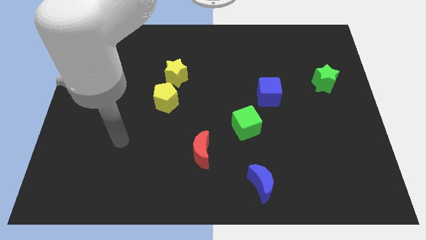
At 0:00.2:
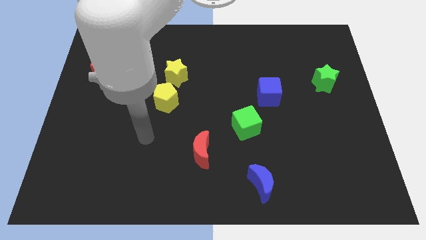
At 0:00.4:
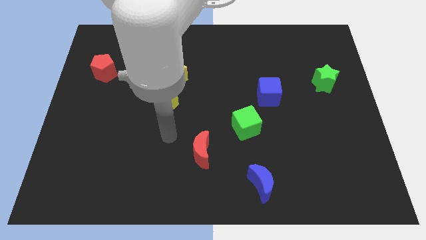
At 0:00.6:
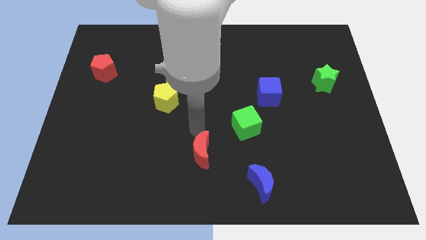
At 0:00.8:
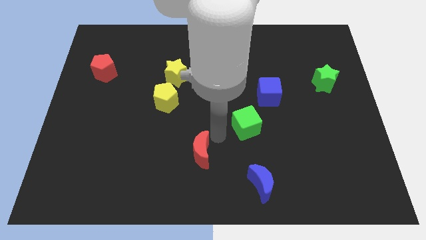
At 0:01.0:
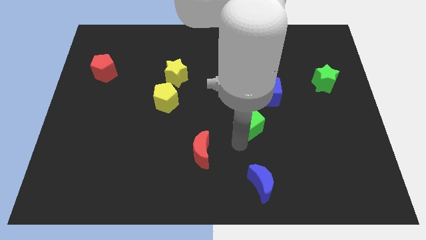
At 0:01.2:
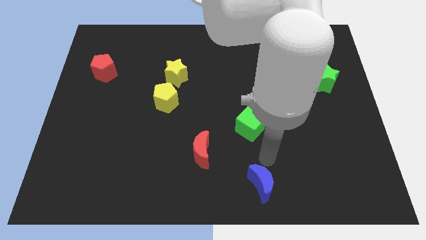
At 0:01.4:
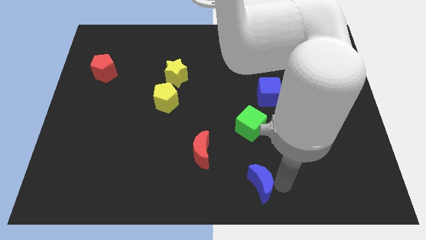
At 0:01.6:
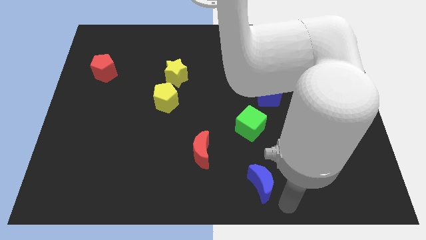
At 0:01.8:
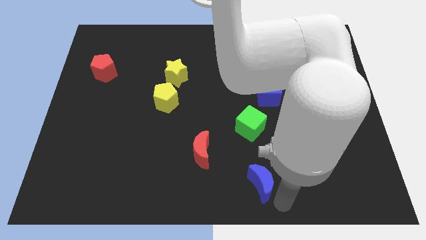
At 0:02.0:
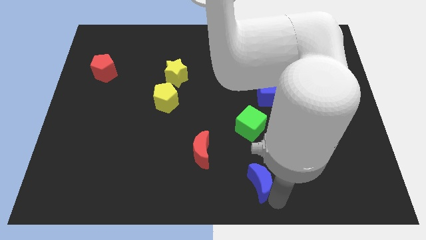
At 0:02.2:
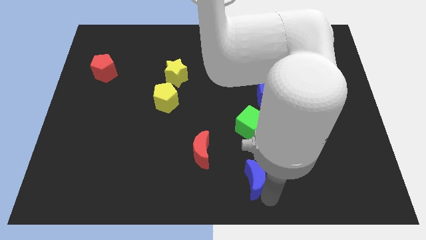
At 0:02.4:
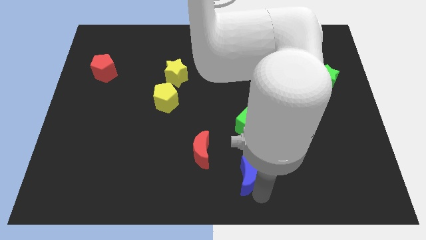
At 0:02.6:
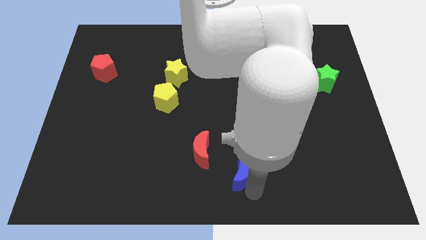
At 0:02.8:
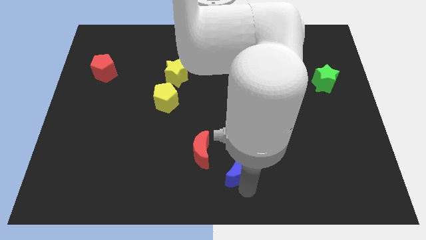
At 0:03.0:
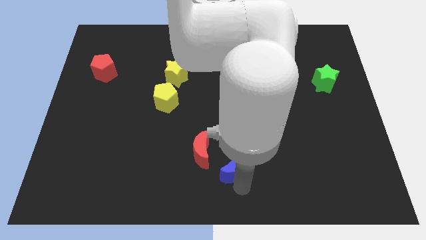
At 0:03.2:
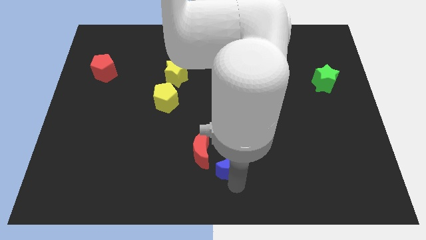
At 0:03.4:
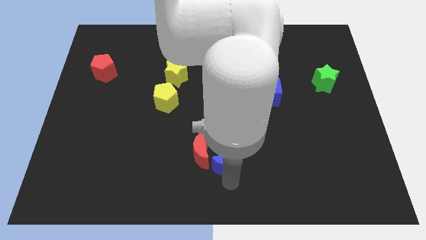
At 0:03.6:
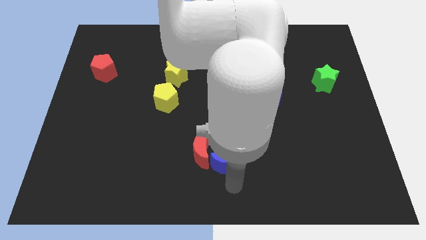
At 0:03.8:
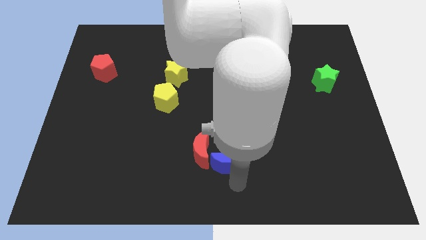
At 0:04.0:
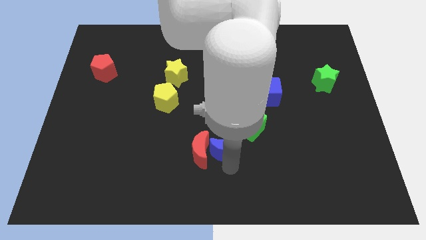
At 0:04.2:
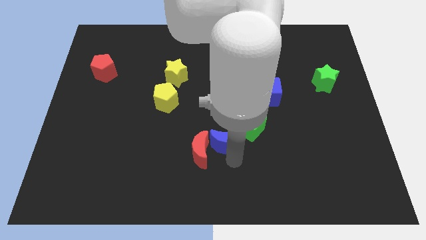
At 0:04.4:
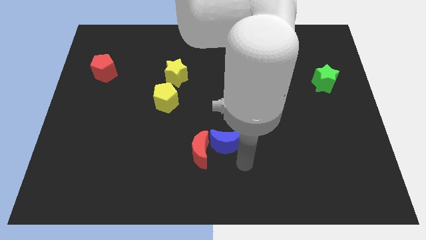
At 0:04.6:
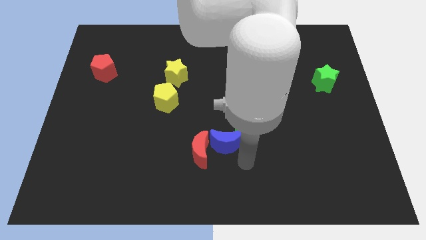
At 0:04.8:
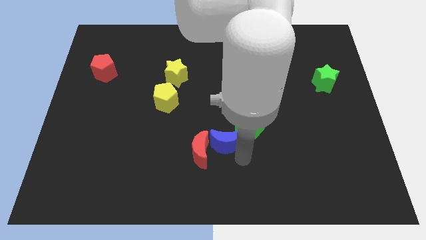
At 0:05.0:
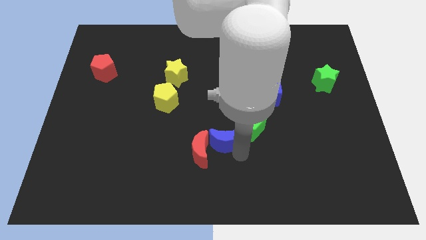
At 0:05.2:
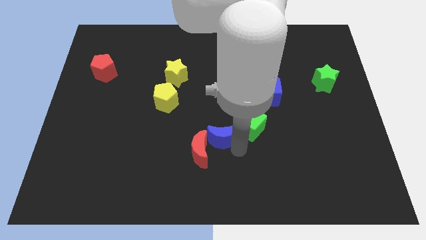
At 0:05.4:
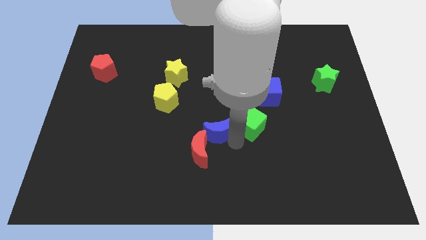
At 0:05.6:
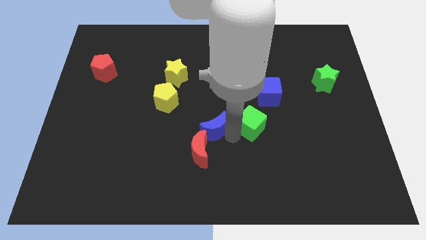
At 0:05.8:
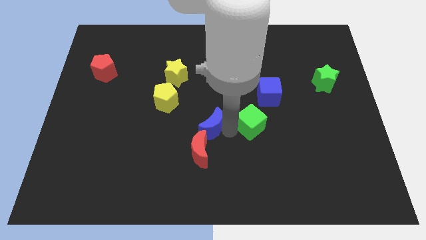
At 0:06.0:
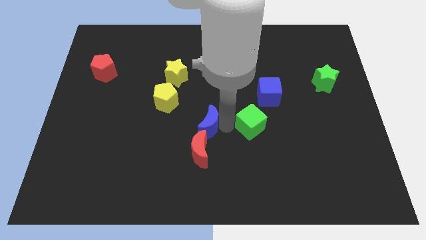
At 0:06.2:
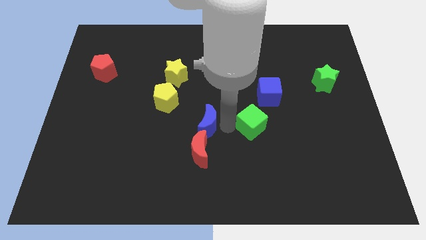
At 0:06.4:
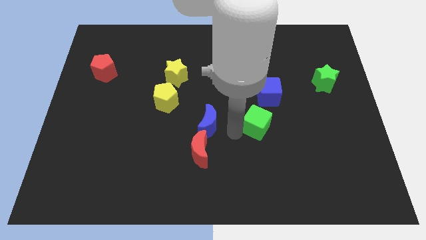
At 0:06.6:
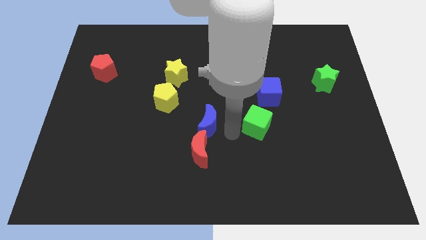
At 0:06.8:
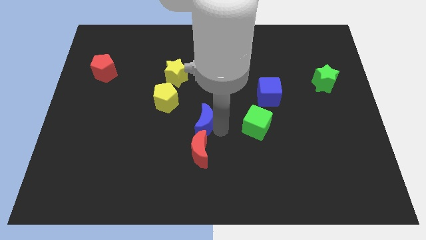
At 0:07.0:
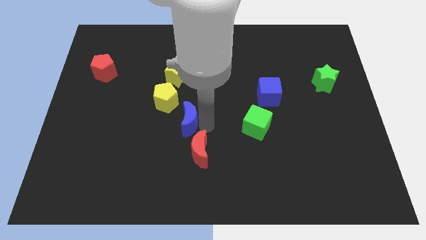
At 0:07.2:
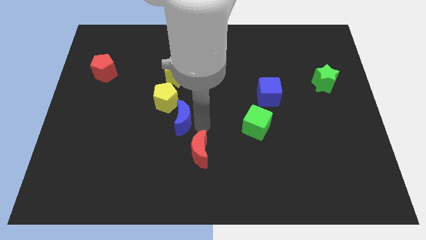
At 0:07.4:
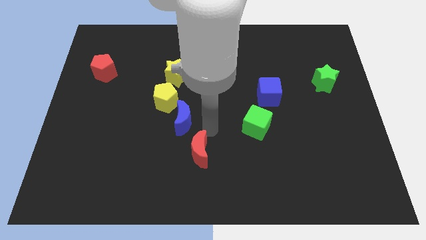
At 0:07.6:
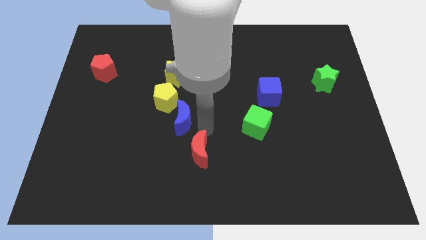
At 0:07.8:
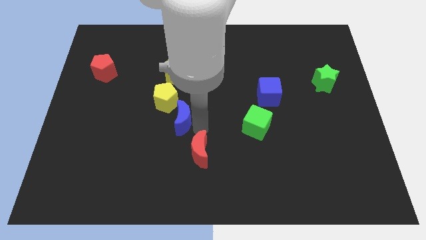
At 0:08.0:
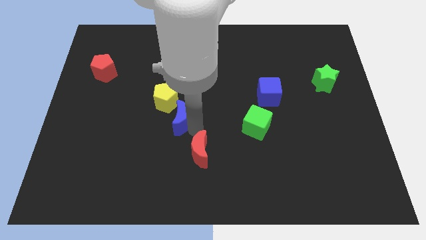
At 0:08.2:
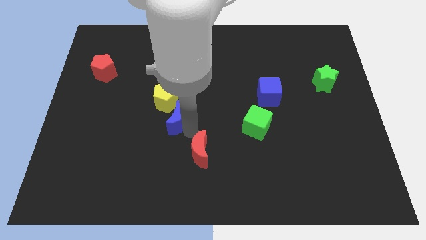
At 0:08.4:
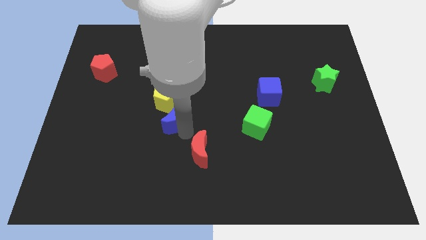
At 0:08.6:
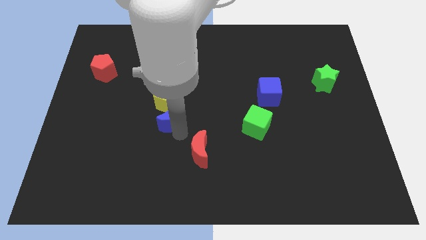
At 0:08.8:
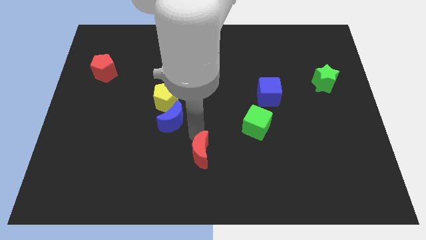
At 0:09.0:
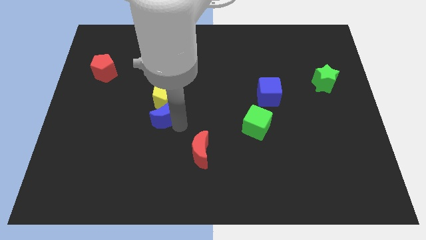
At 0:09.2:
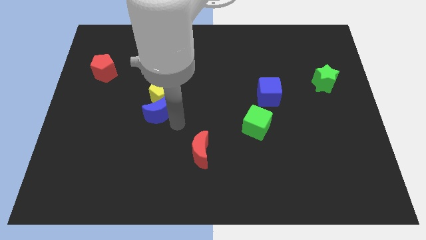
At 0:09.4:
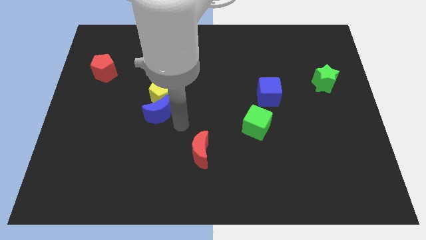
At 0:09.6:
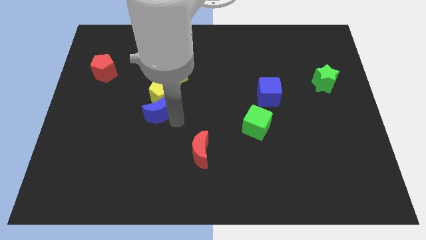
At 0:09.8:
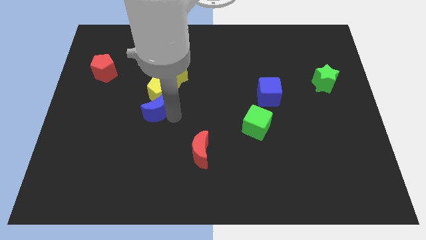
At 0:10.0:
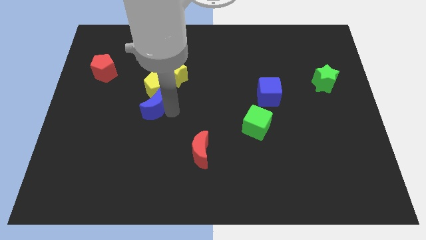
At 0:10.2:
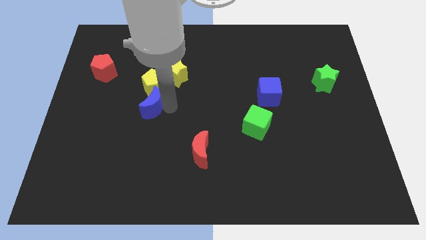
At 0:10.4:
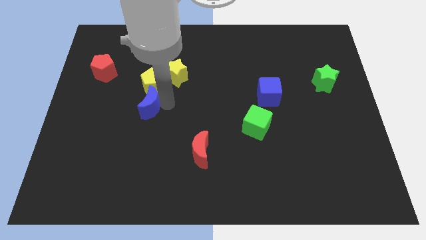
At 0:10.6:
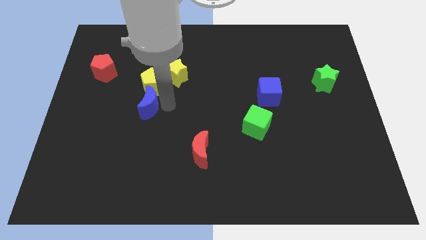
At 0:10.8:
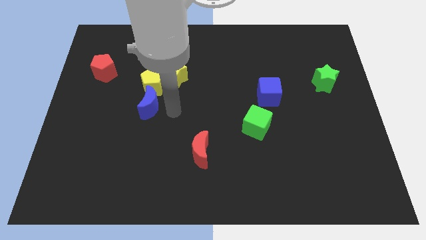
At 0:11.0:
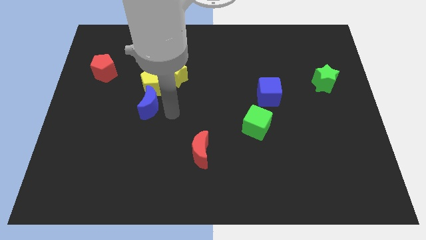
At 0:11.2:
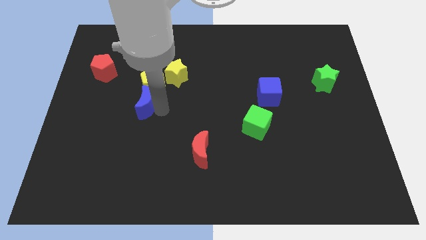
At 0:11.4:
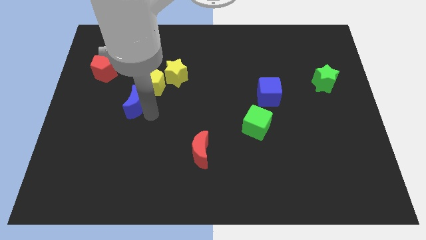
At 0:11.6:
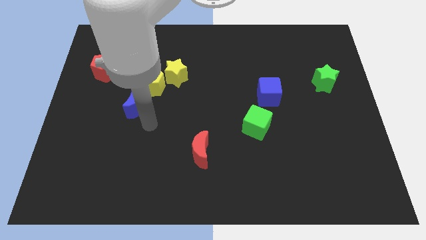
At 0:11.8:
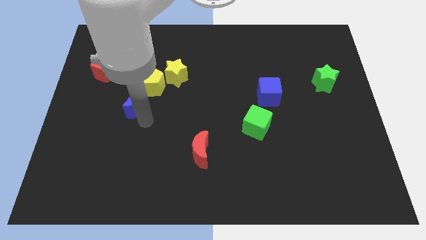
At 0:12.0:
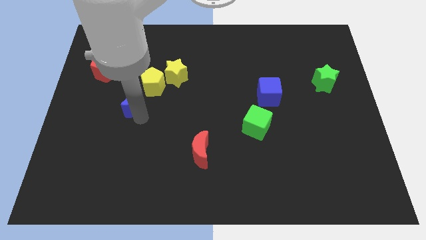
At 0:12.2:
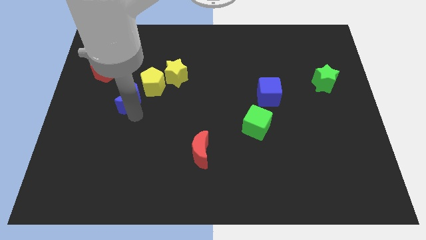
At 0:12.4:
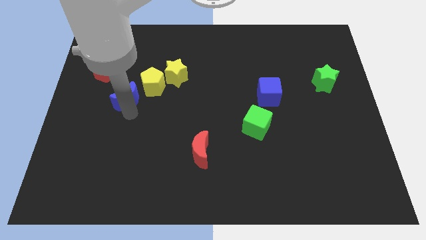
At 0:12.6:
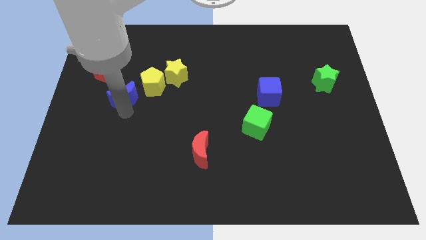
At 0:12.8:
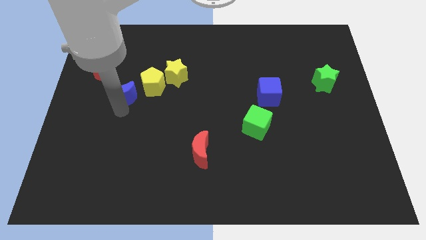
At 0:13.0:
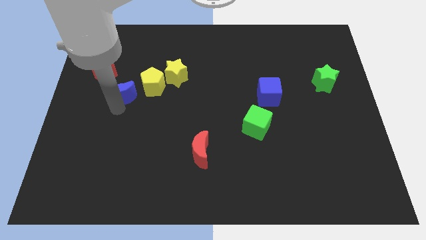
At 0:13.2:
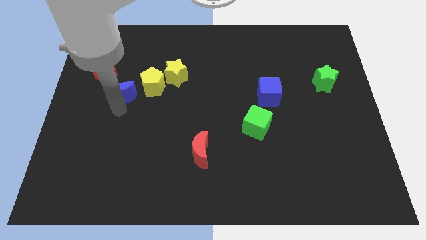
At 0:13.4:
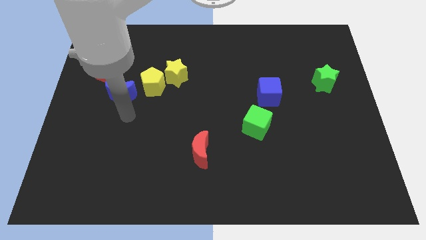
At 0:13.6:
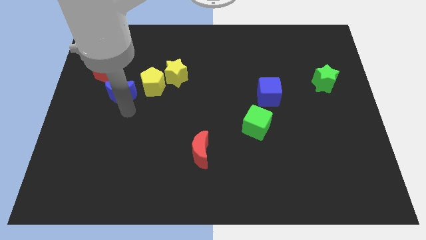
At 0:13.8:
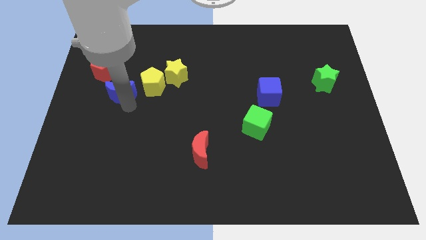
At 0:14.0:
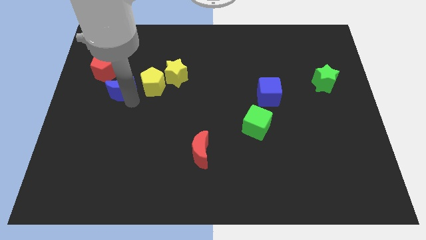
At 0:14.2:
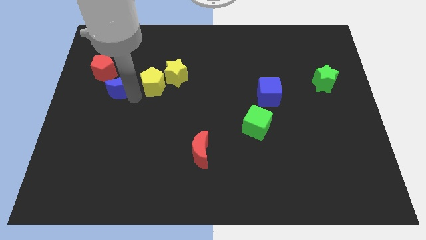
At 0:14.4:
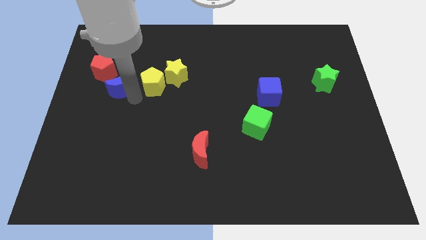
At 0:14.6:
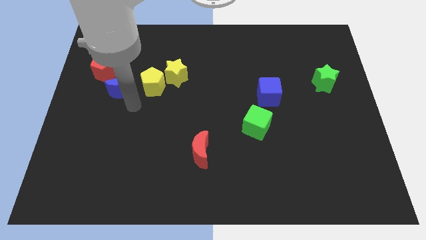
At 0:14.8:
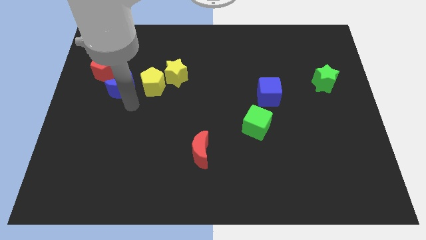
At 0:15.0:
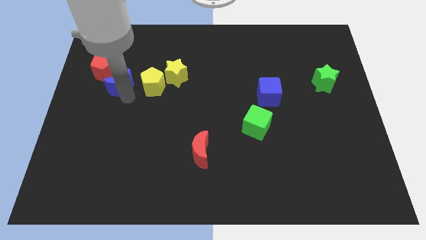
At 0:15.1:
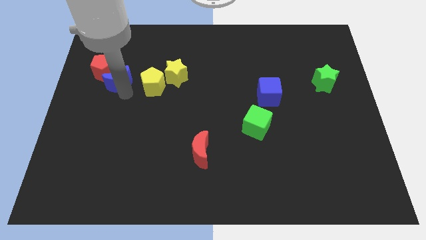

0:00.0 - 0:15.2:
put the blue moon next to the red pentagon
